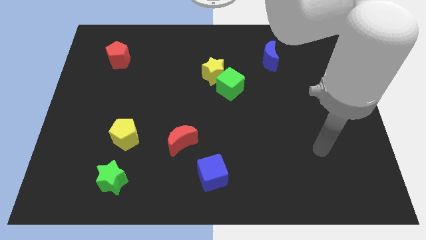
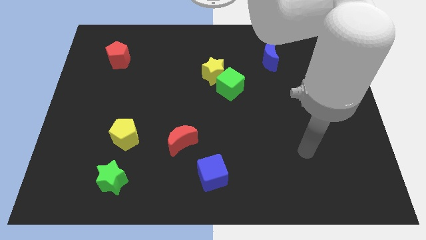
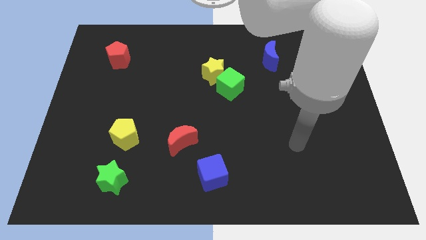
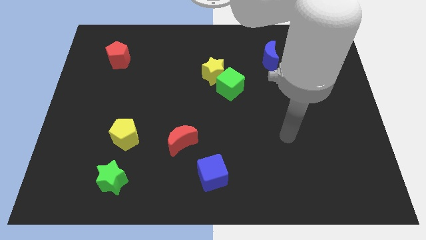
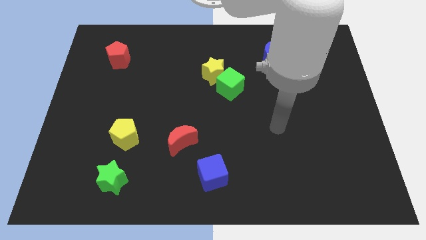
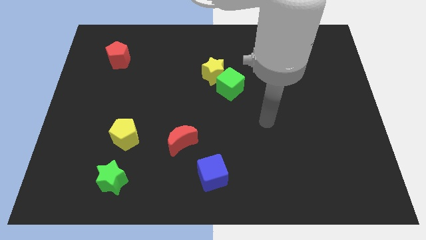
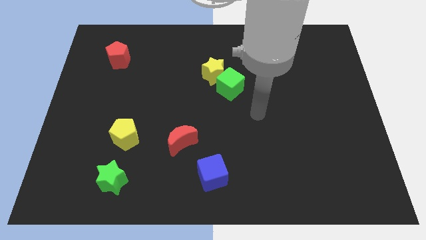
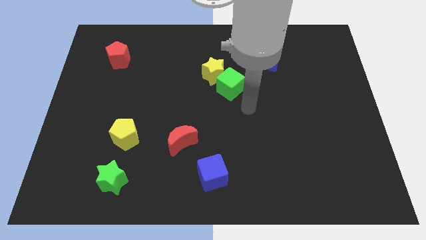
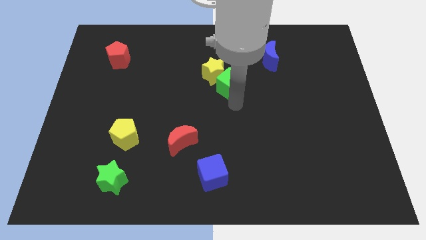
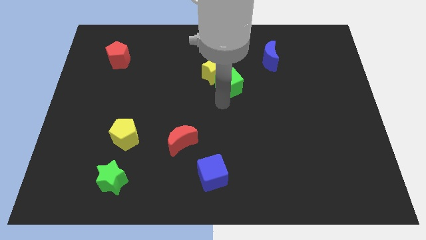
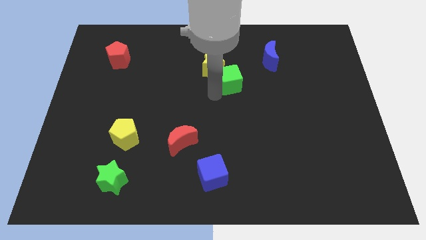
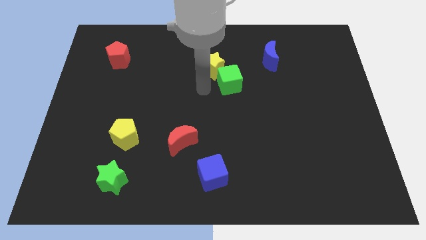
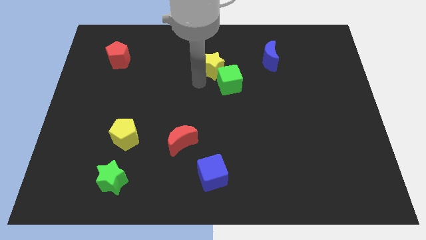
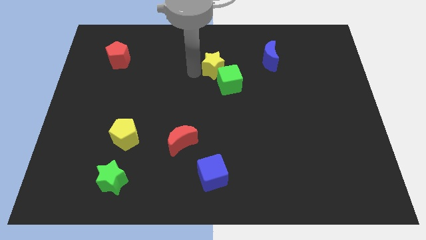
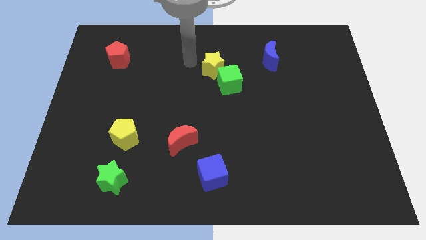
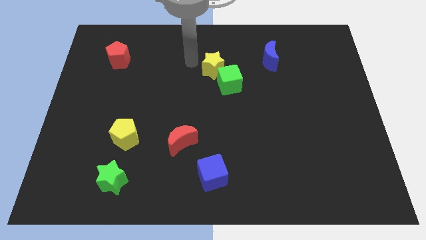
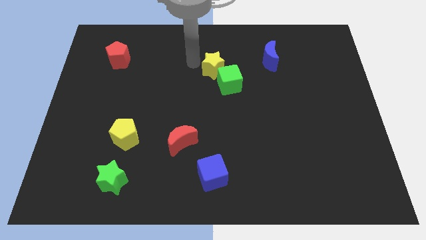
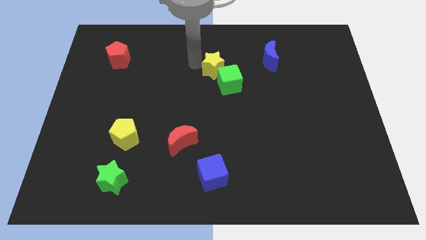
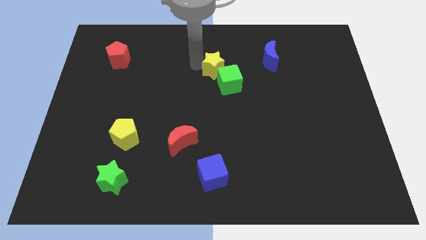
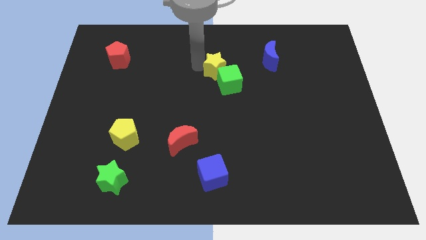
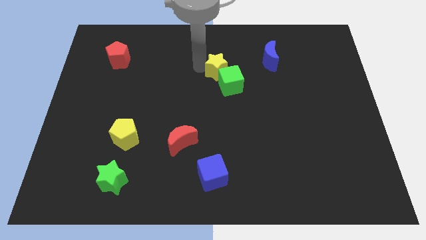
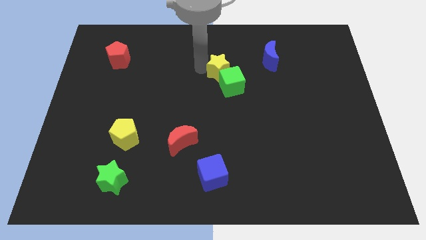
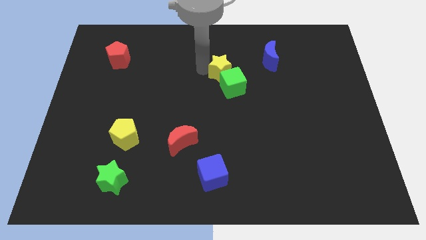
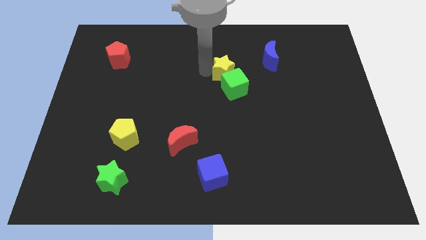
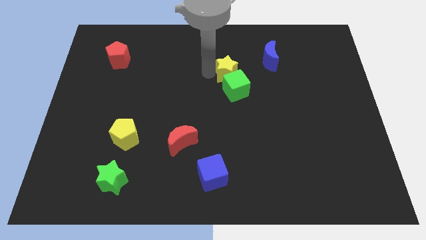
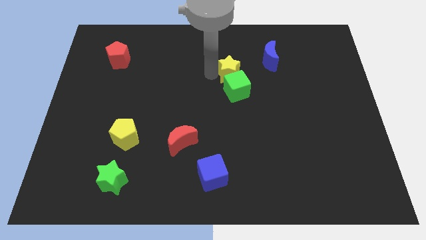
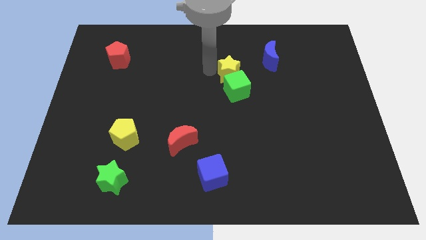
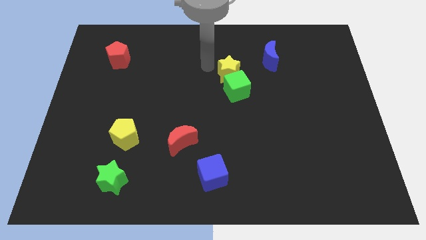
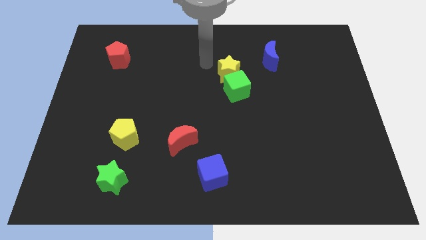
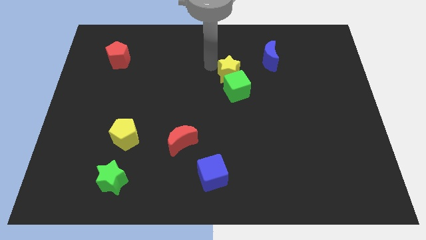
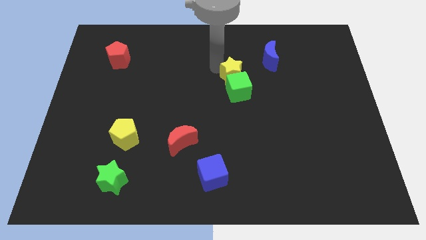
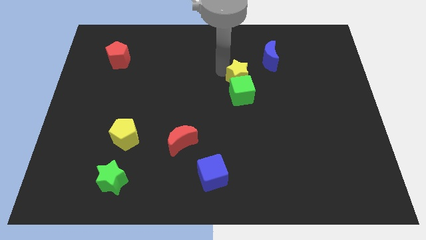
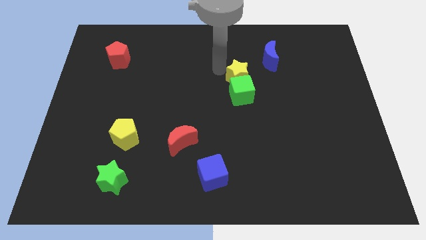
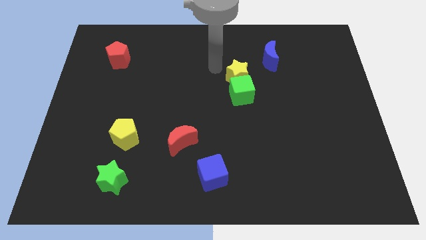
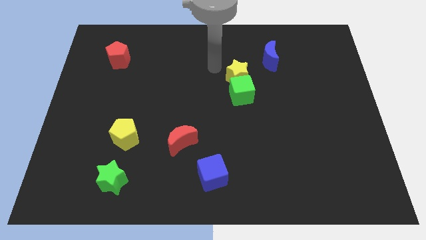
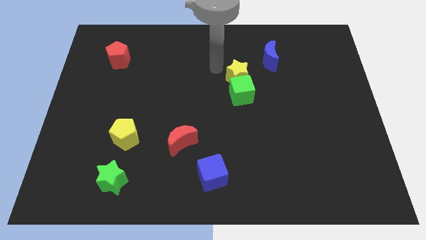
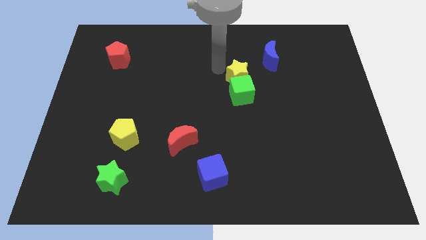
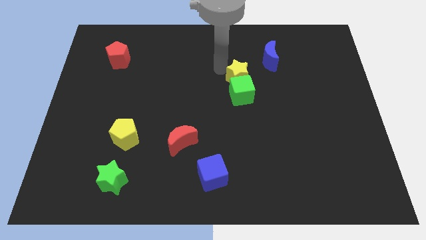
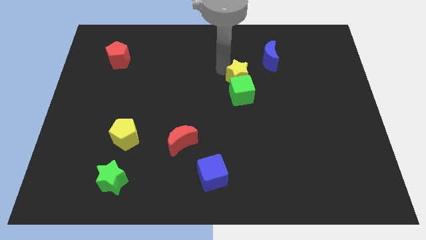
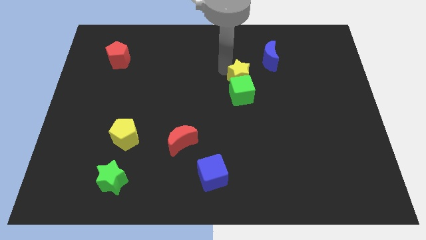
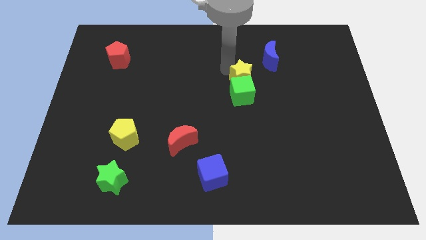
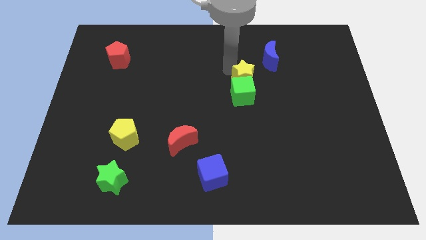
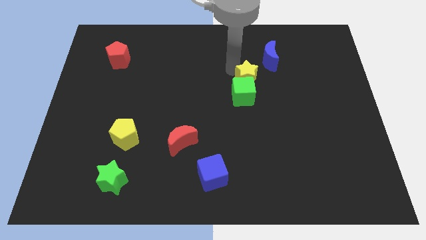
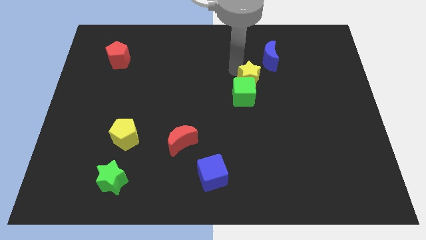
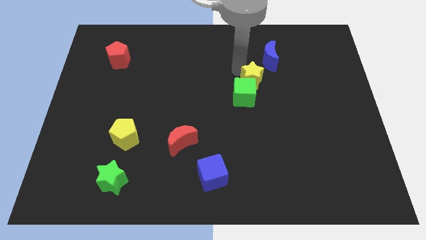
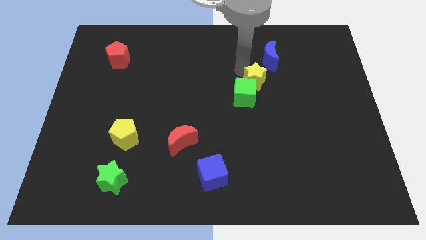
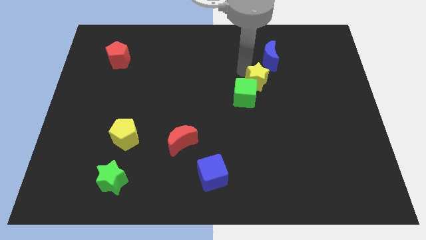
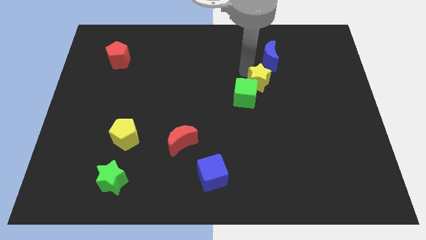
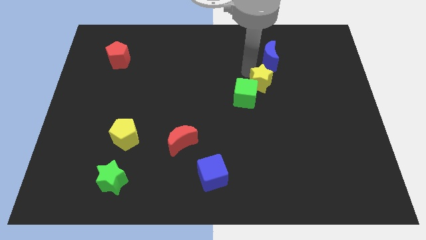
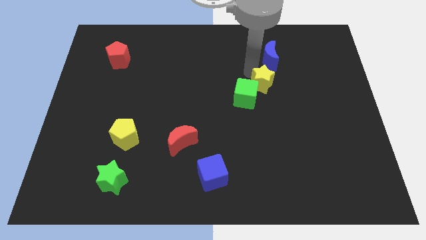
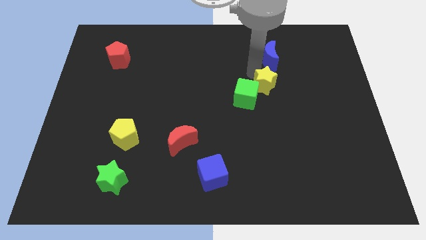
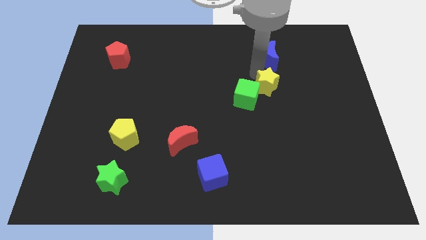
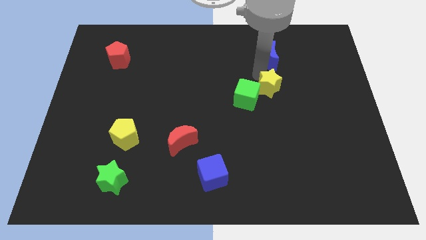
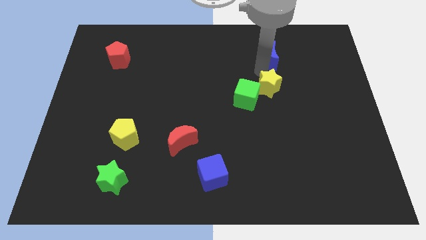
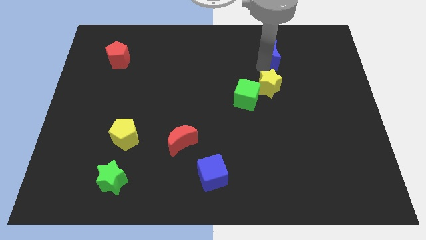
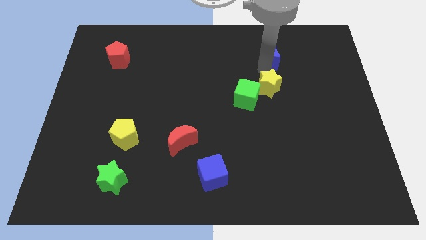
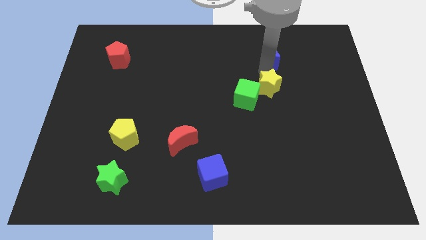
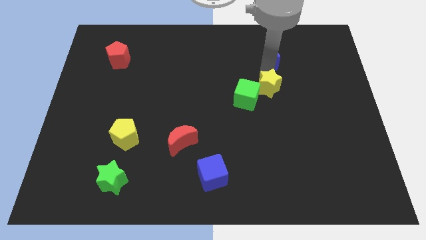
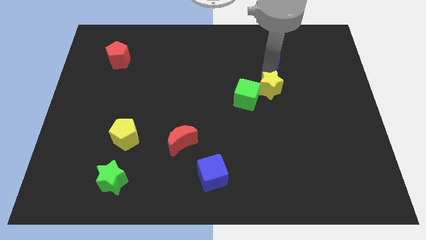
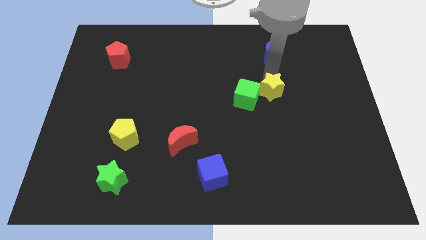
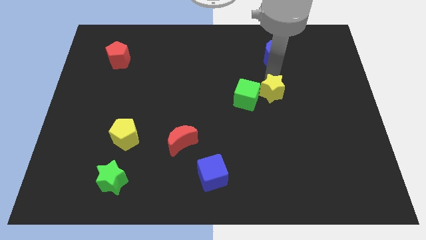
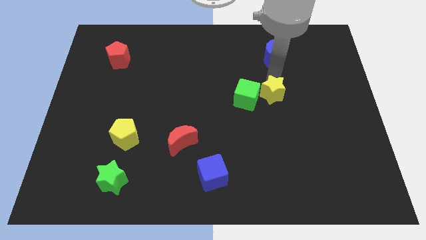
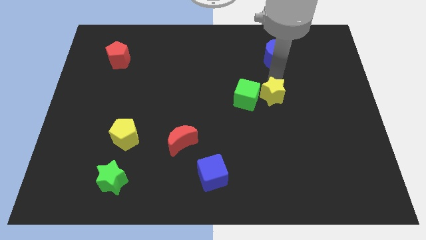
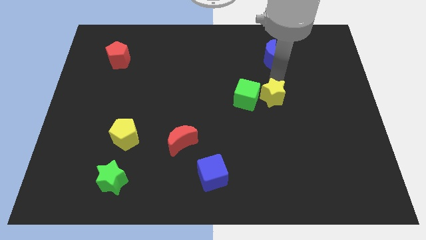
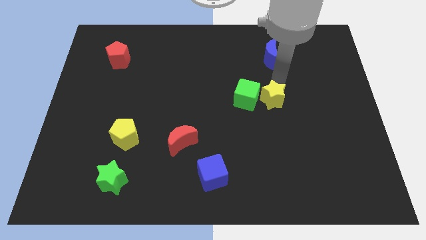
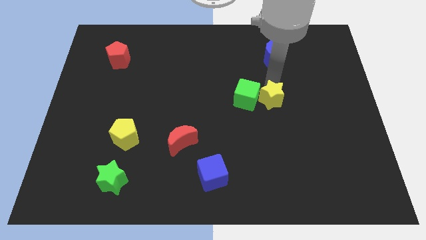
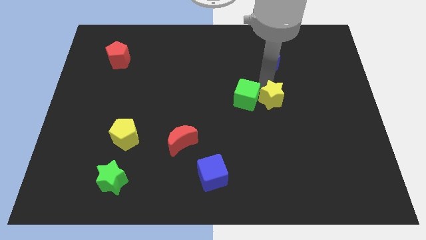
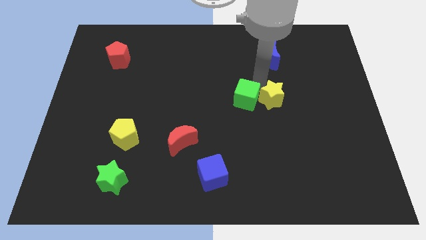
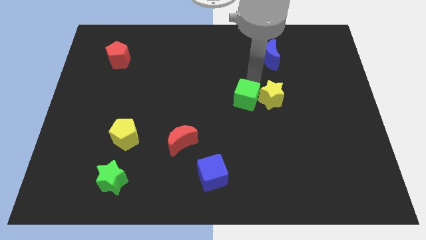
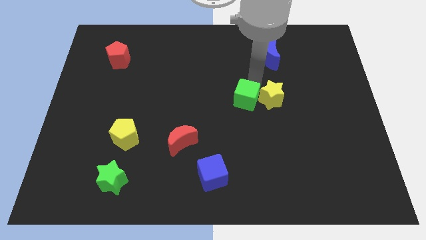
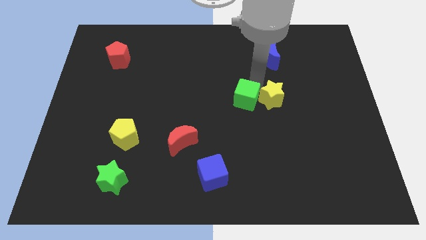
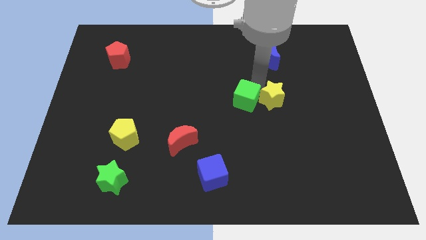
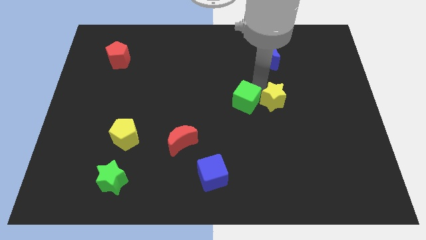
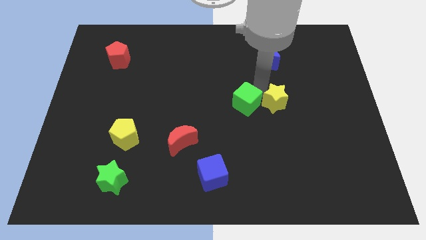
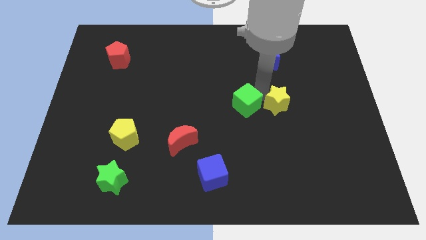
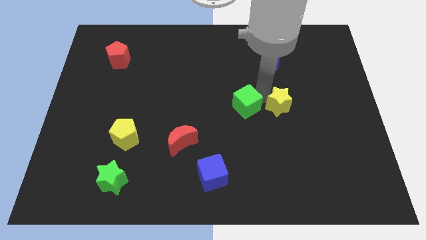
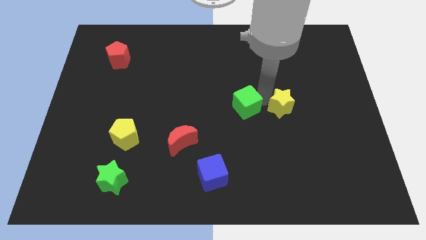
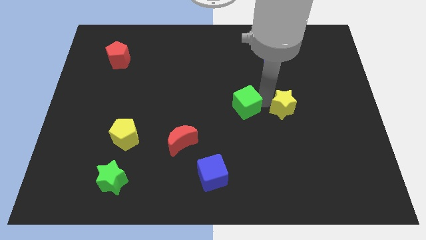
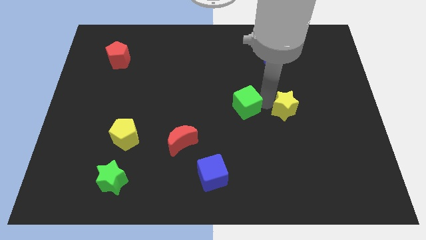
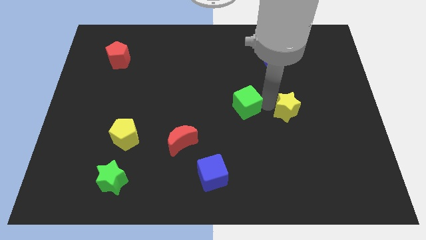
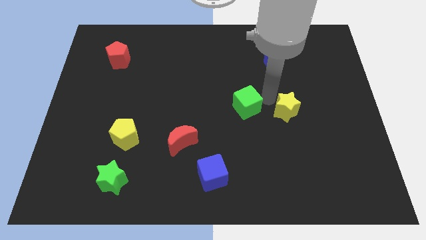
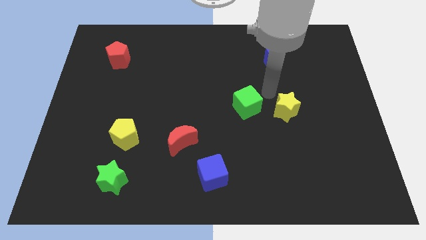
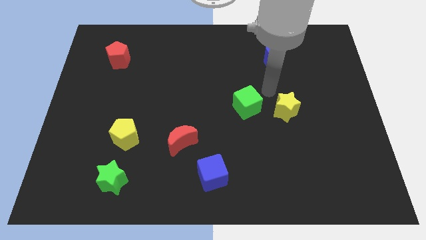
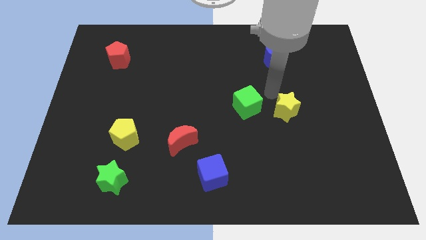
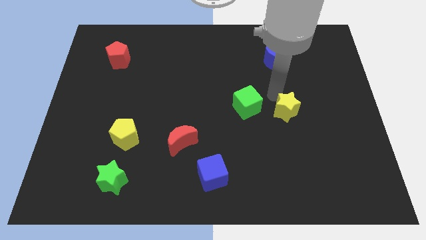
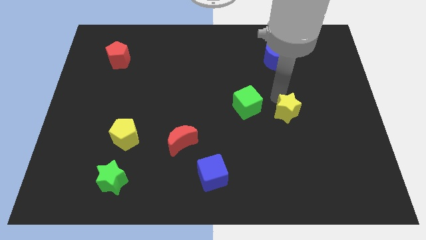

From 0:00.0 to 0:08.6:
slide the yellow star down and right
